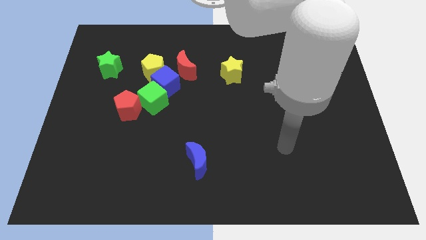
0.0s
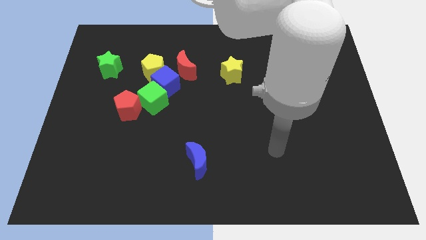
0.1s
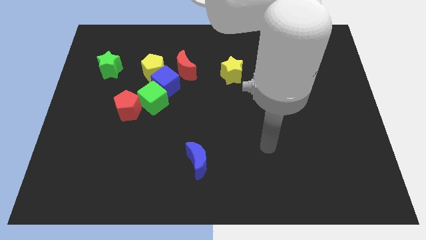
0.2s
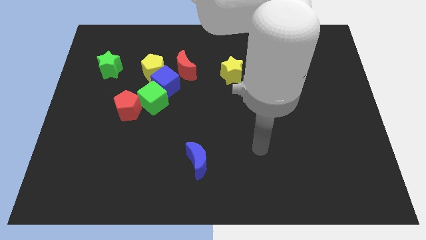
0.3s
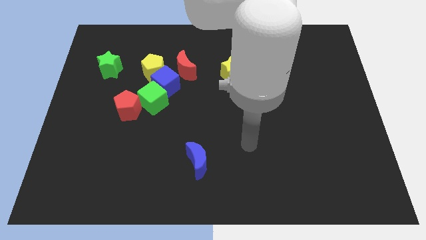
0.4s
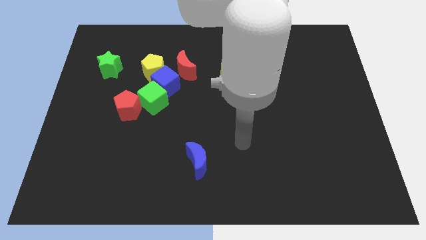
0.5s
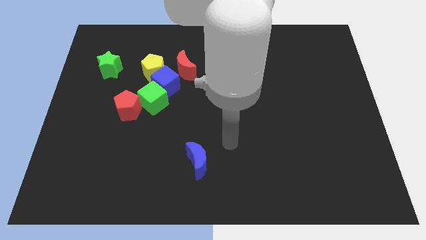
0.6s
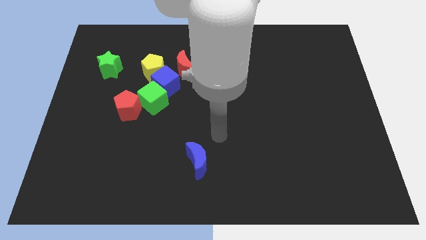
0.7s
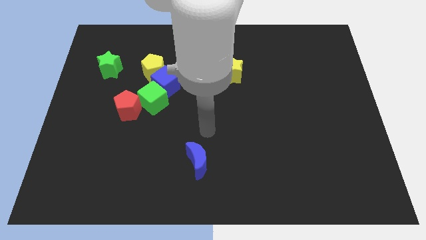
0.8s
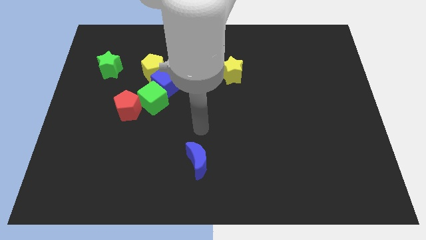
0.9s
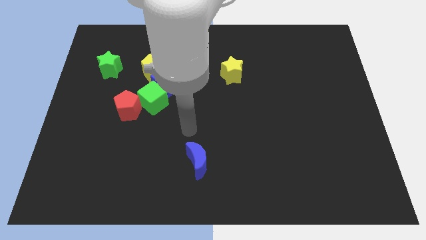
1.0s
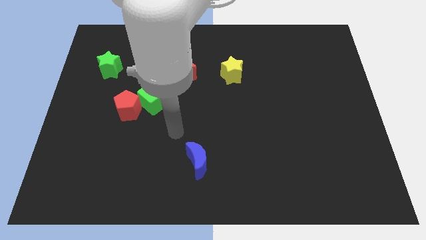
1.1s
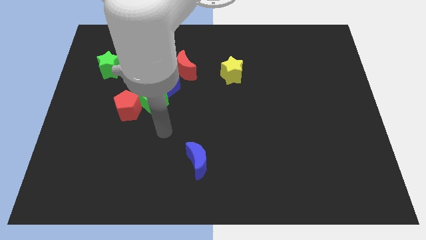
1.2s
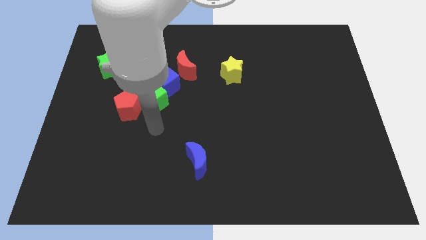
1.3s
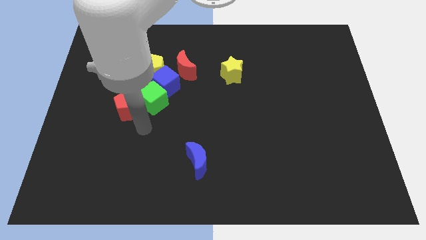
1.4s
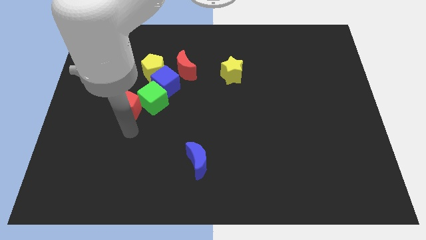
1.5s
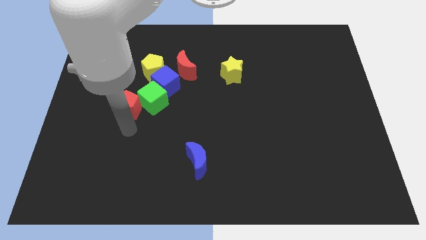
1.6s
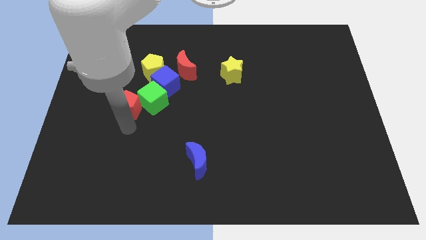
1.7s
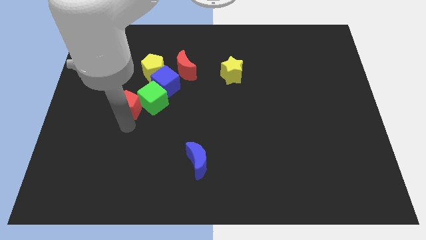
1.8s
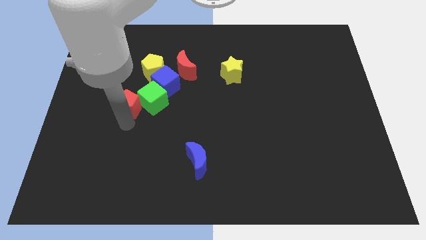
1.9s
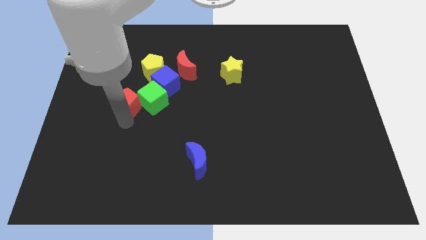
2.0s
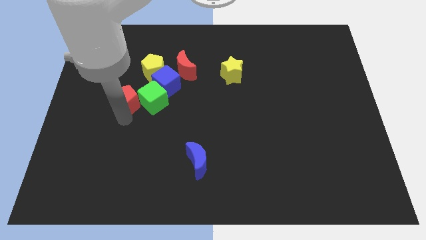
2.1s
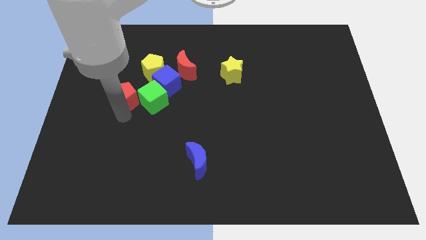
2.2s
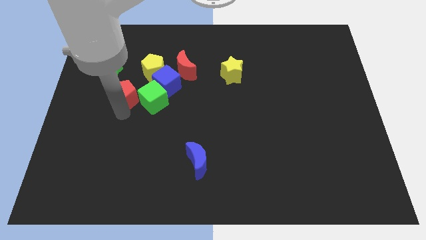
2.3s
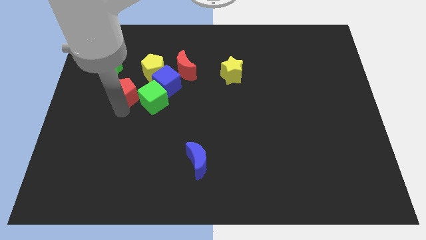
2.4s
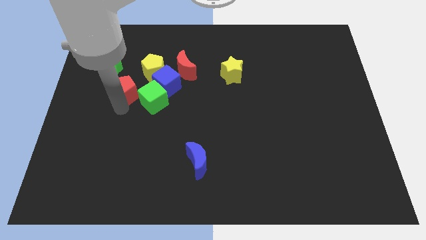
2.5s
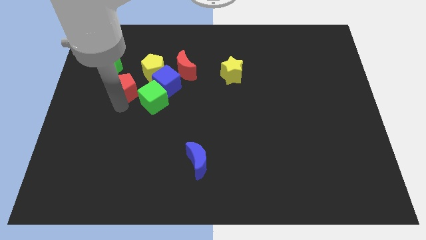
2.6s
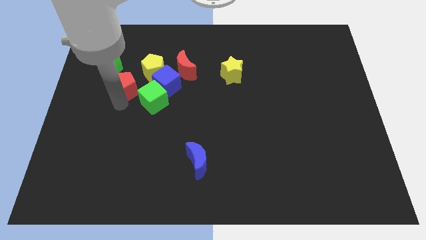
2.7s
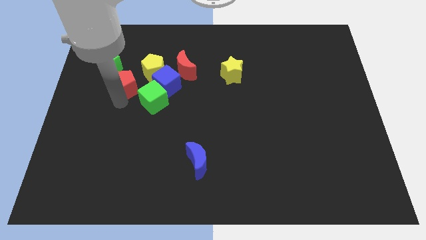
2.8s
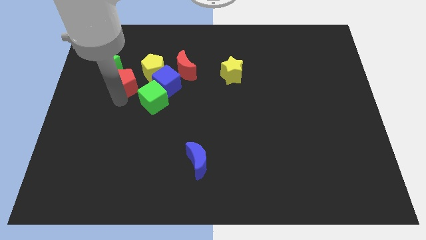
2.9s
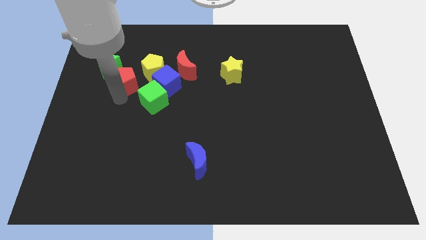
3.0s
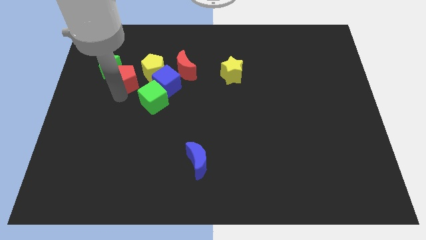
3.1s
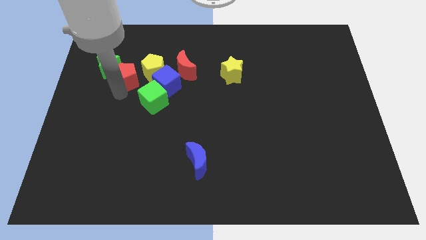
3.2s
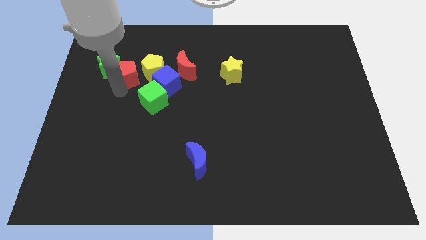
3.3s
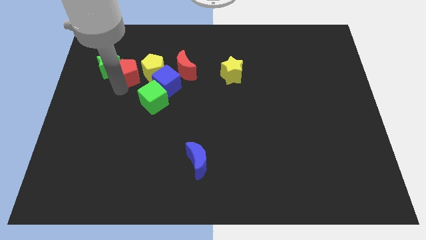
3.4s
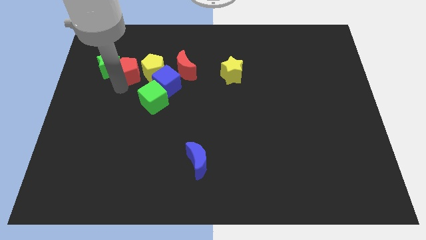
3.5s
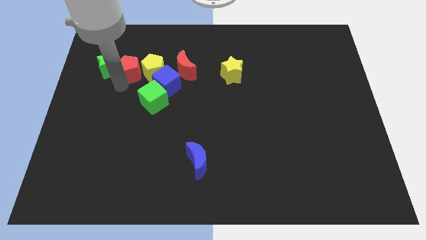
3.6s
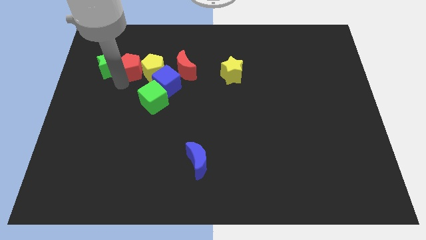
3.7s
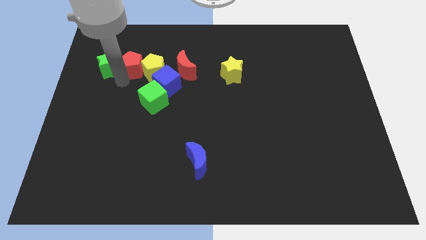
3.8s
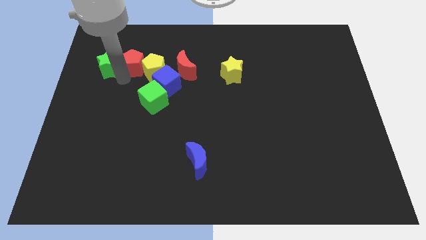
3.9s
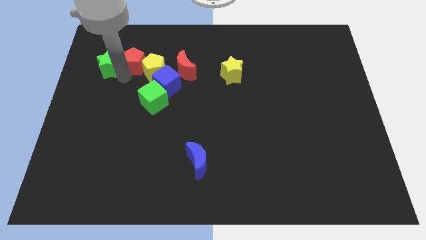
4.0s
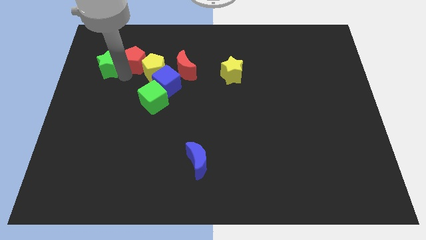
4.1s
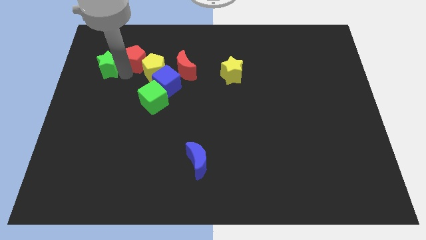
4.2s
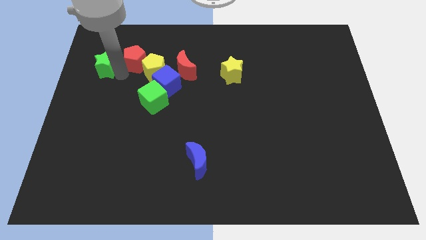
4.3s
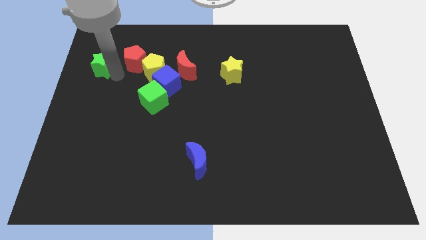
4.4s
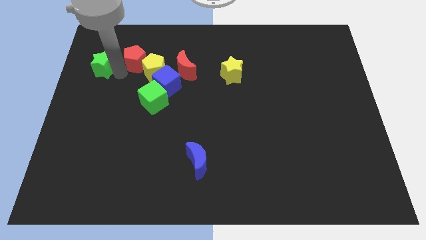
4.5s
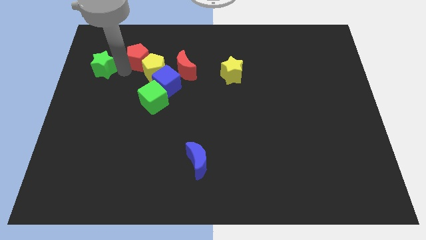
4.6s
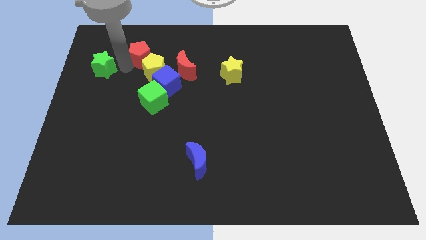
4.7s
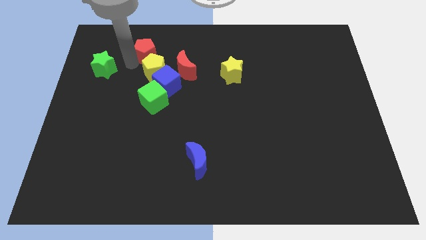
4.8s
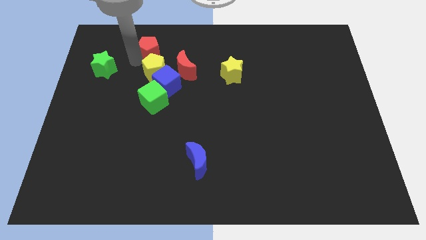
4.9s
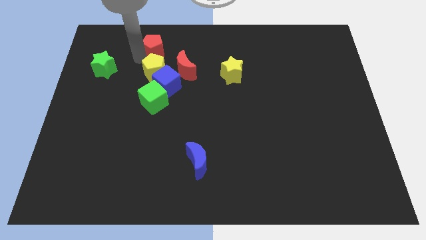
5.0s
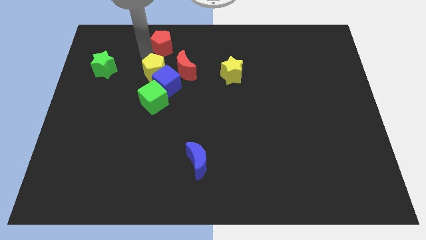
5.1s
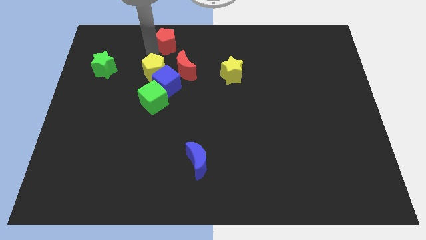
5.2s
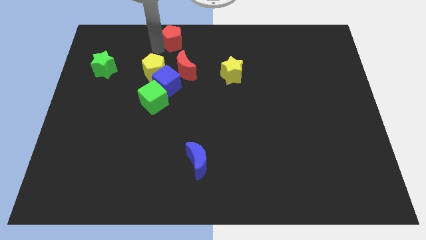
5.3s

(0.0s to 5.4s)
push the red pentagon to the top

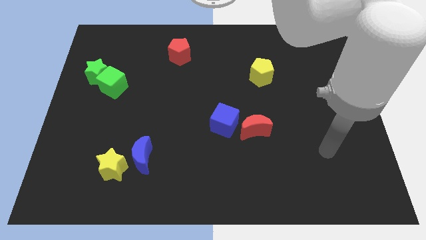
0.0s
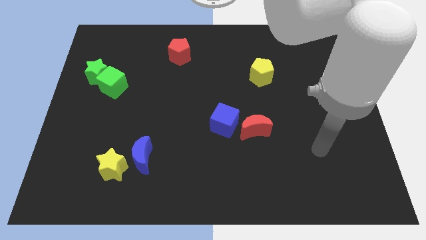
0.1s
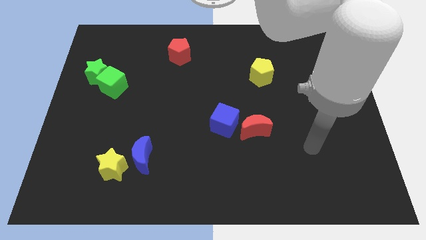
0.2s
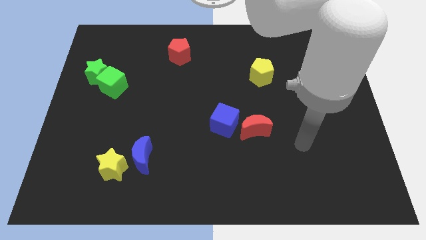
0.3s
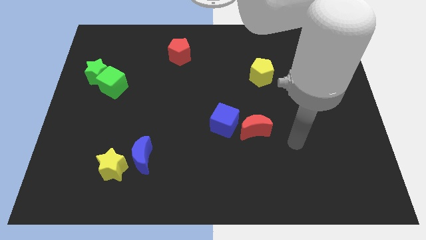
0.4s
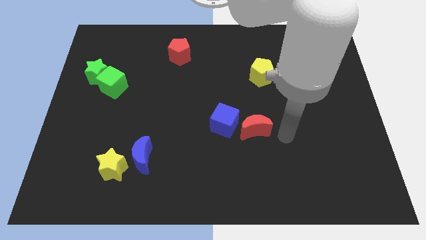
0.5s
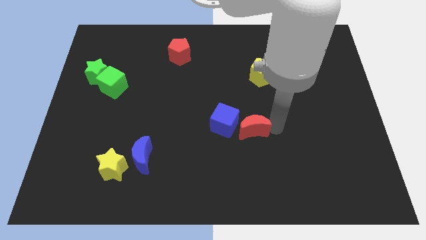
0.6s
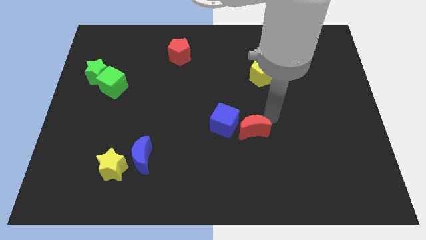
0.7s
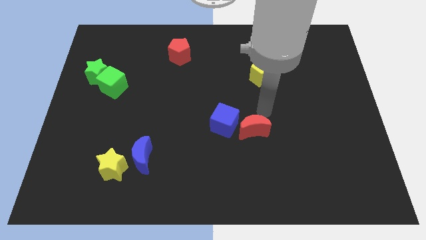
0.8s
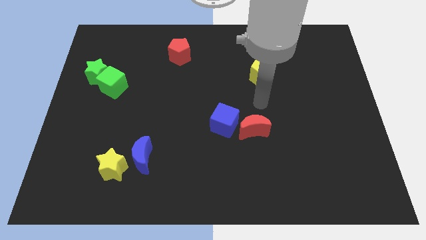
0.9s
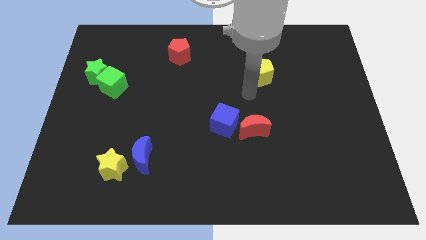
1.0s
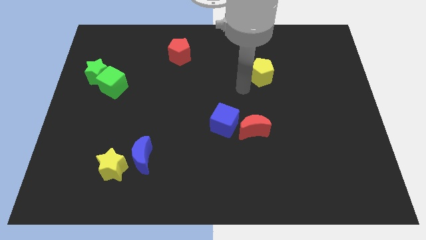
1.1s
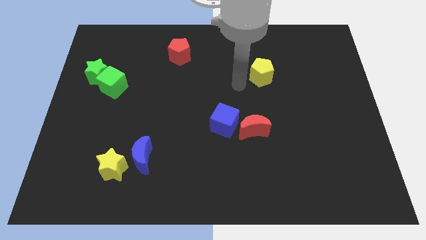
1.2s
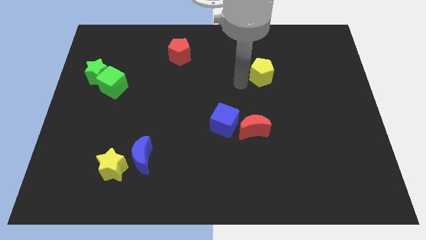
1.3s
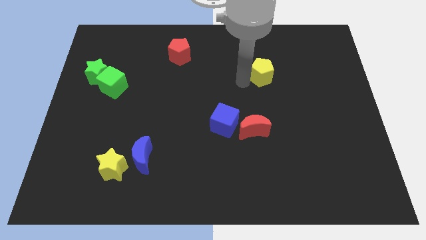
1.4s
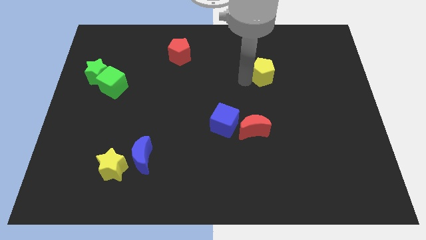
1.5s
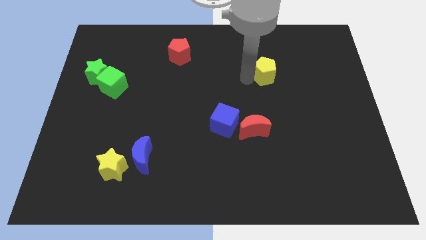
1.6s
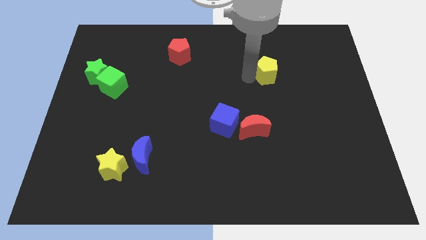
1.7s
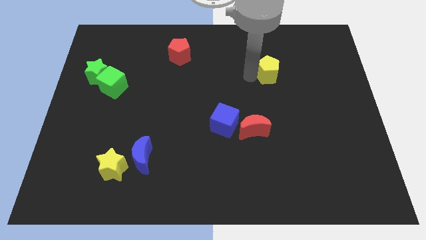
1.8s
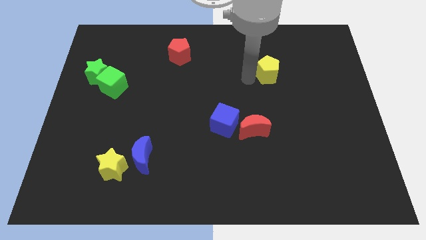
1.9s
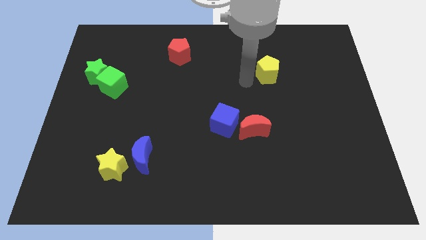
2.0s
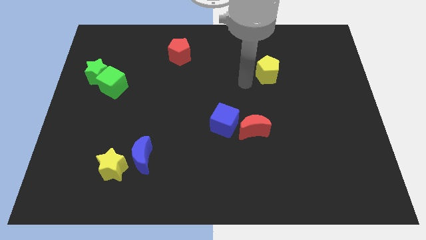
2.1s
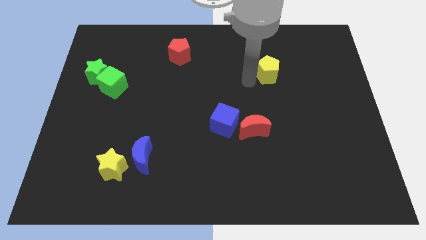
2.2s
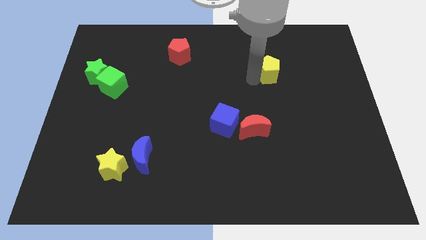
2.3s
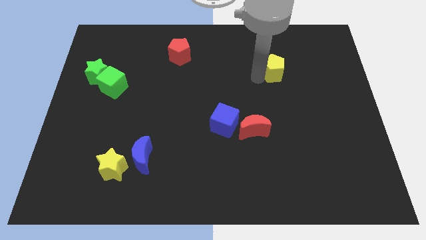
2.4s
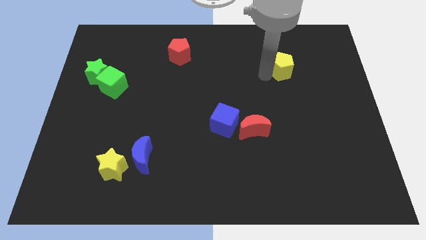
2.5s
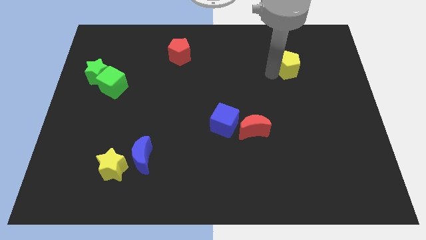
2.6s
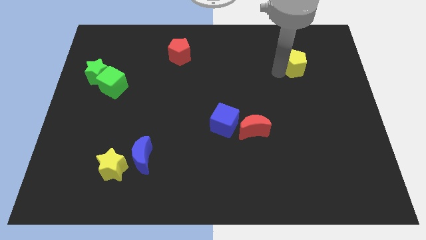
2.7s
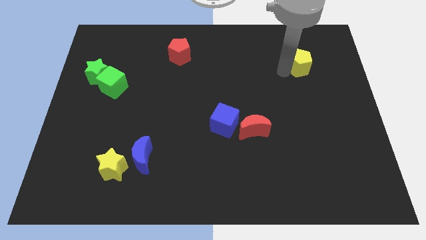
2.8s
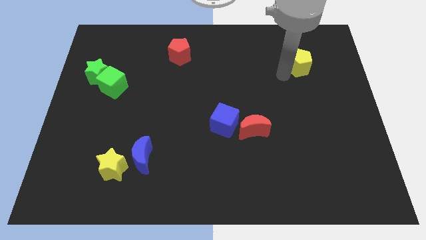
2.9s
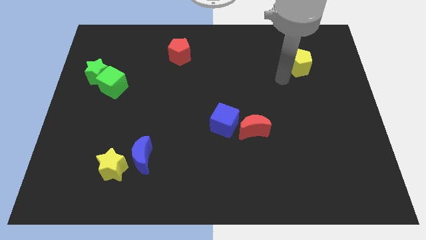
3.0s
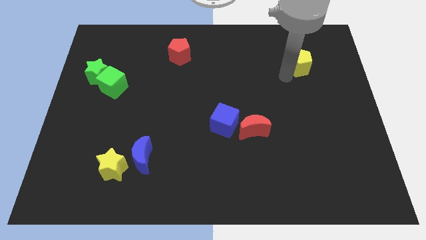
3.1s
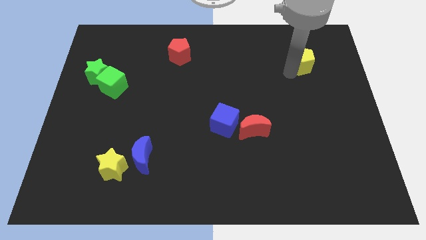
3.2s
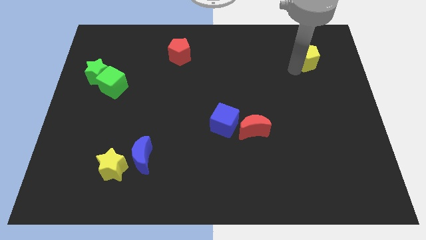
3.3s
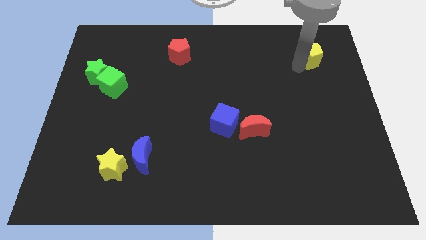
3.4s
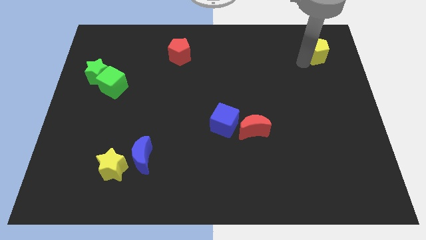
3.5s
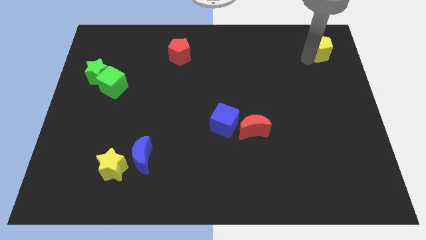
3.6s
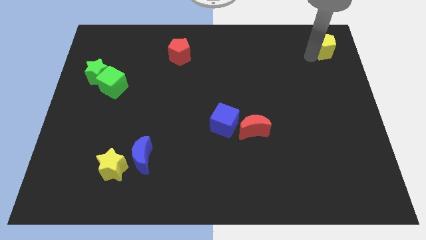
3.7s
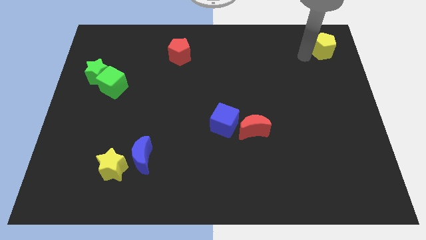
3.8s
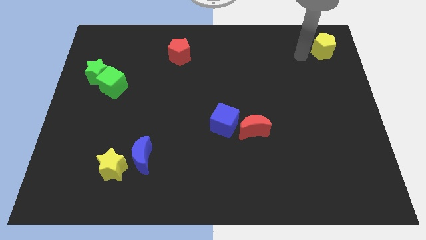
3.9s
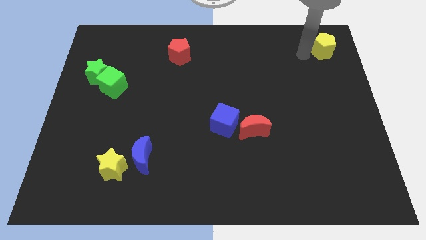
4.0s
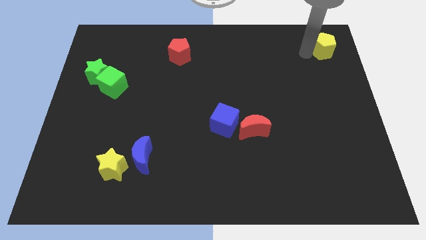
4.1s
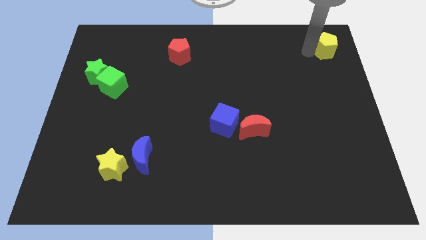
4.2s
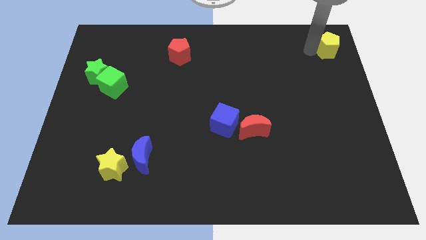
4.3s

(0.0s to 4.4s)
move the yellow pentagon to the top right
